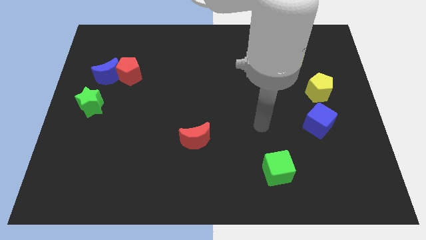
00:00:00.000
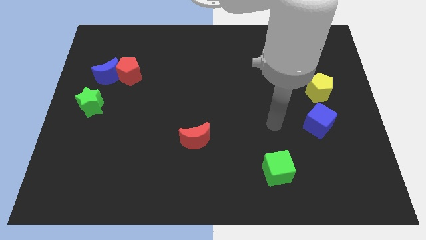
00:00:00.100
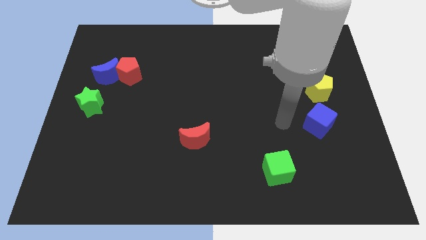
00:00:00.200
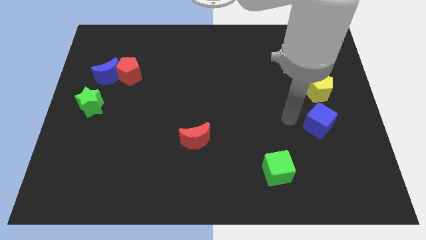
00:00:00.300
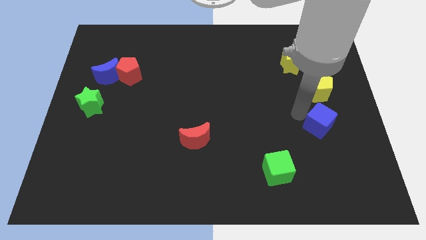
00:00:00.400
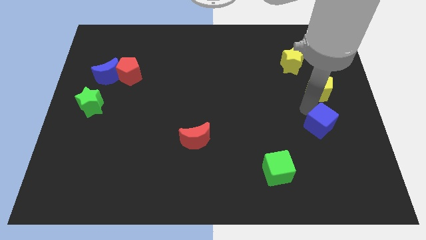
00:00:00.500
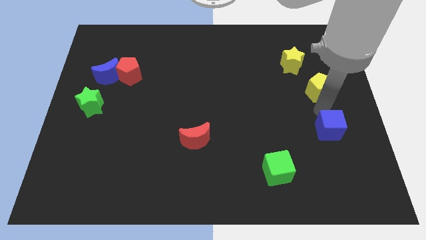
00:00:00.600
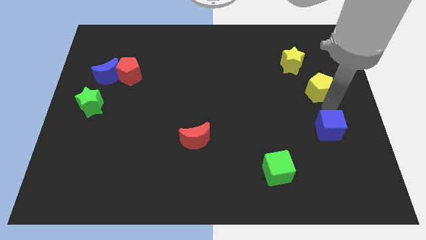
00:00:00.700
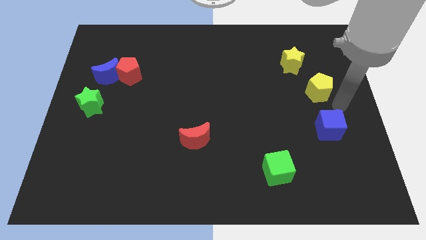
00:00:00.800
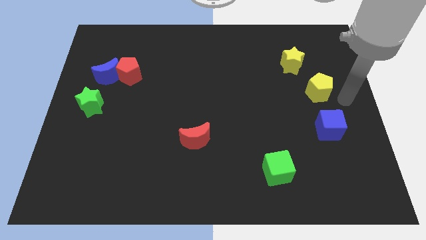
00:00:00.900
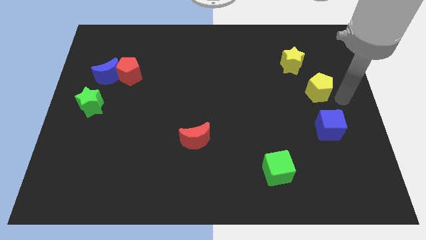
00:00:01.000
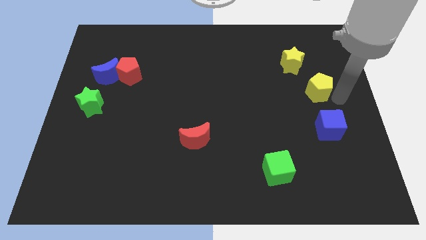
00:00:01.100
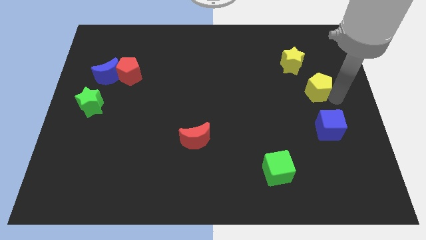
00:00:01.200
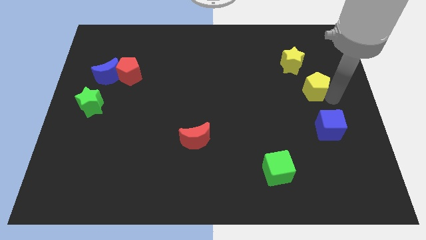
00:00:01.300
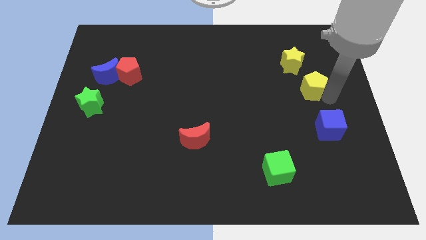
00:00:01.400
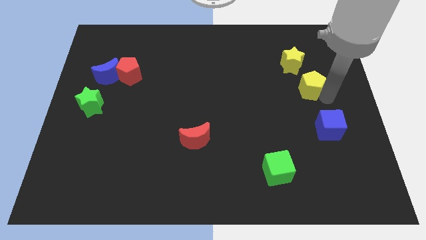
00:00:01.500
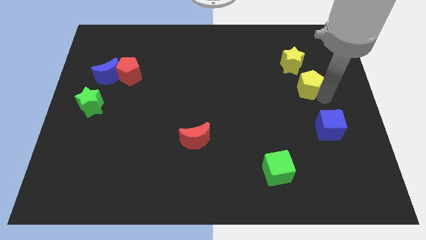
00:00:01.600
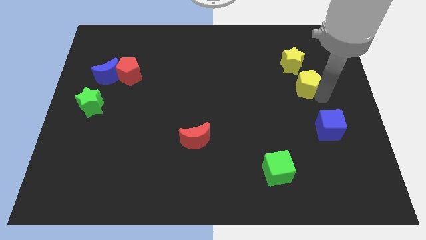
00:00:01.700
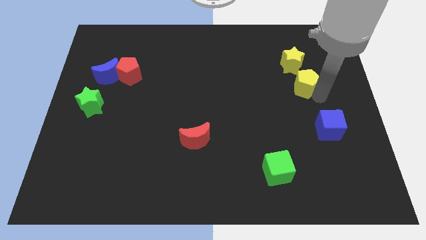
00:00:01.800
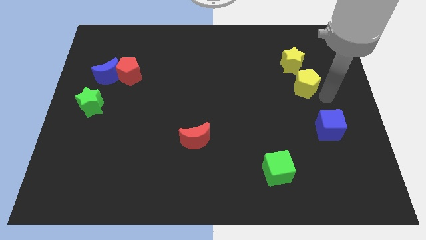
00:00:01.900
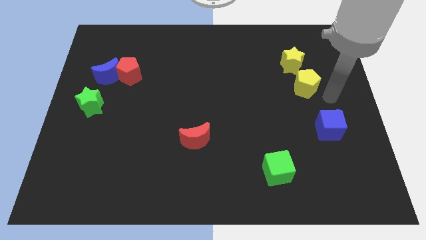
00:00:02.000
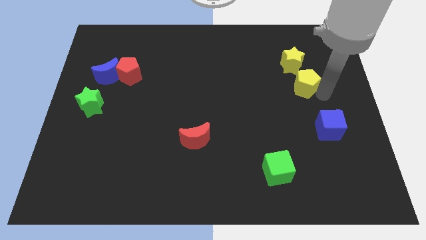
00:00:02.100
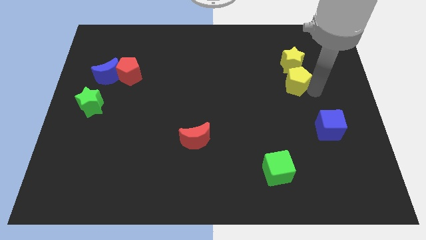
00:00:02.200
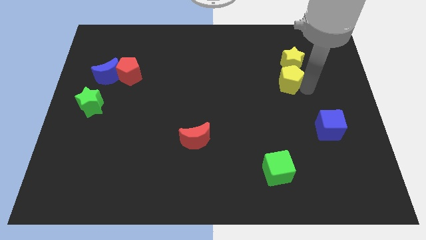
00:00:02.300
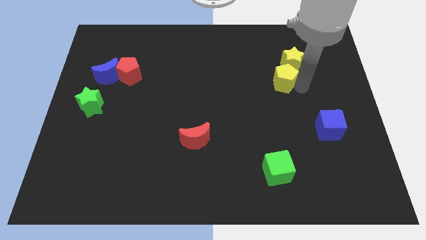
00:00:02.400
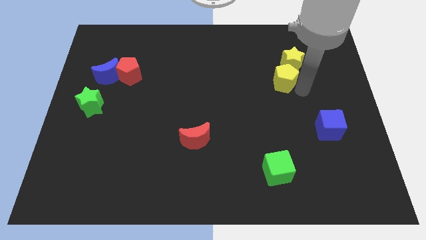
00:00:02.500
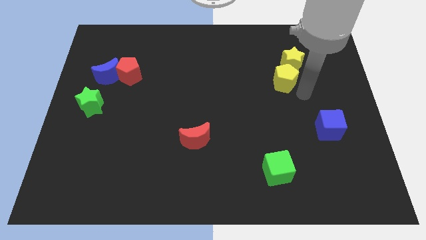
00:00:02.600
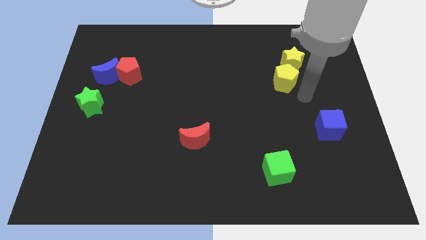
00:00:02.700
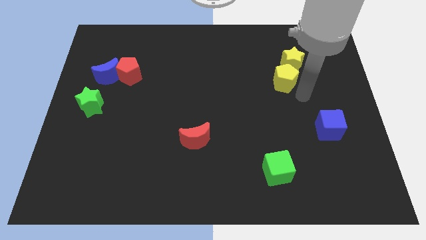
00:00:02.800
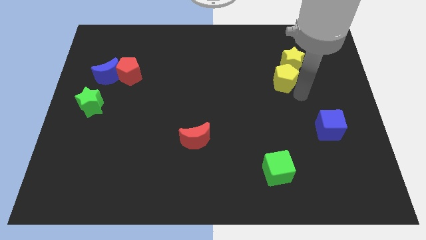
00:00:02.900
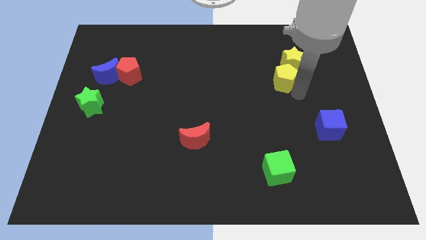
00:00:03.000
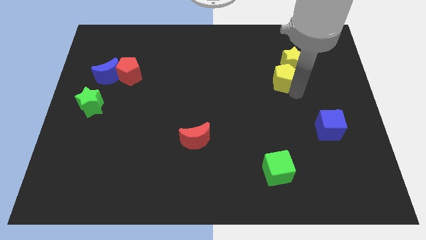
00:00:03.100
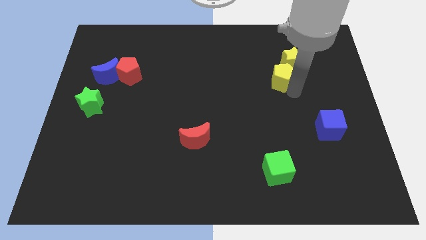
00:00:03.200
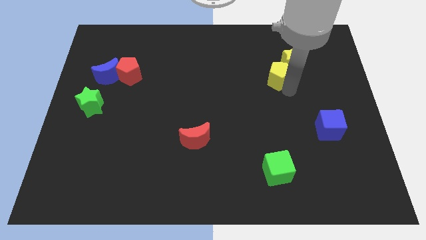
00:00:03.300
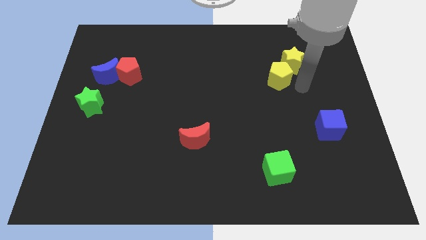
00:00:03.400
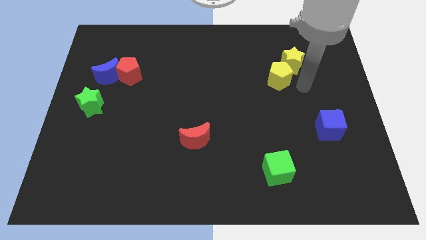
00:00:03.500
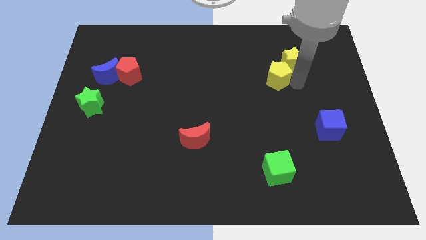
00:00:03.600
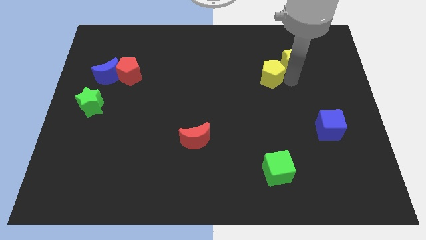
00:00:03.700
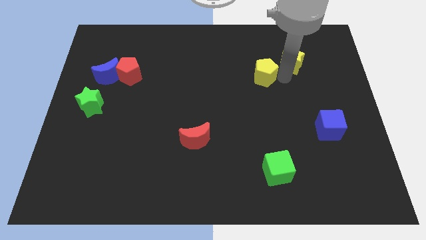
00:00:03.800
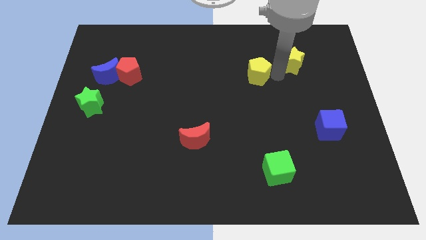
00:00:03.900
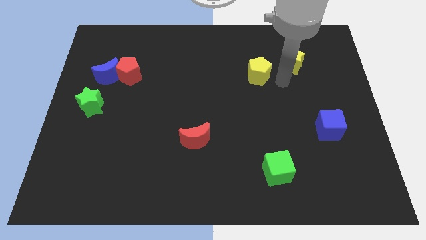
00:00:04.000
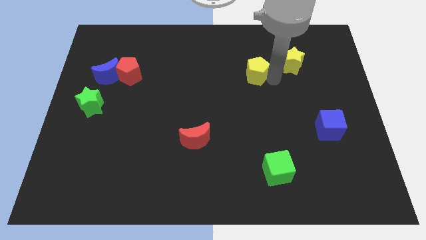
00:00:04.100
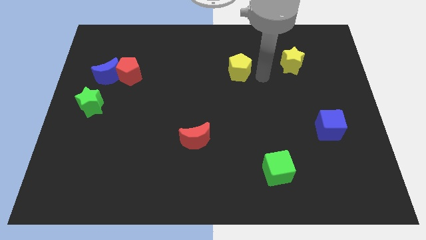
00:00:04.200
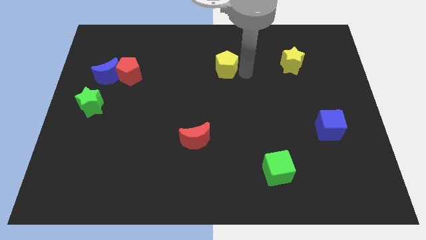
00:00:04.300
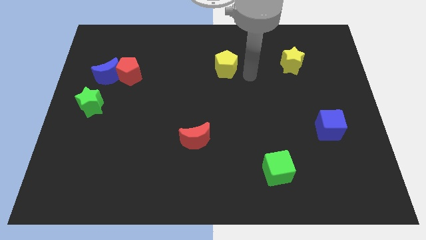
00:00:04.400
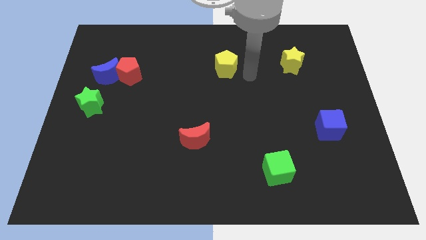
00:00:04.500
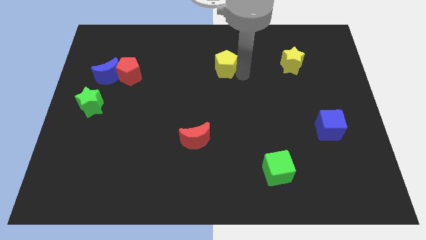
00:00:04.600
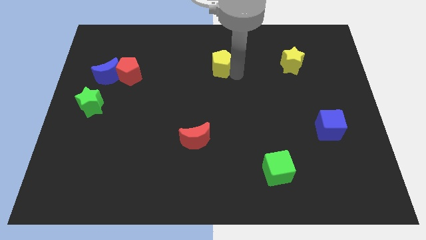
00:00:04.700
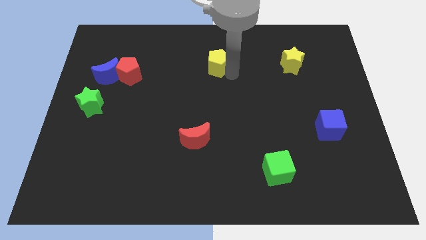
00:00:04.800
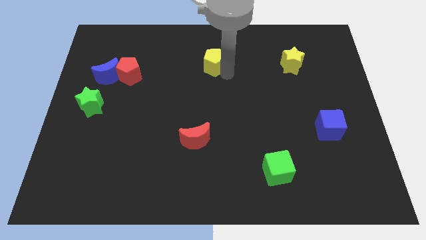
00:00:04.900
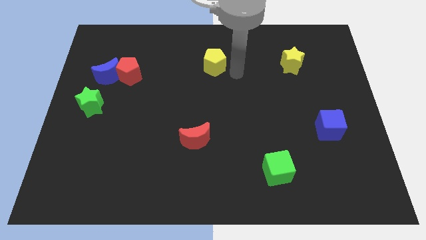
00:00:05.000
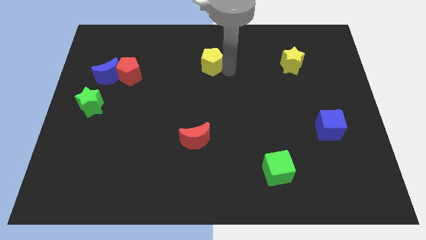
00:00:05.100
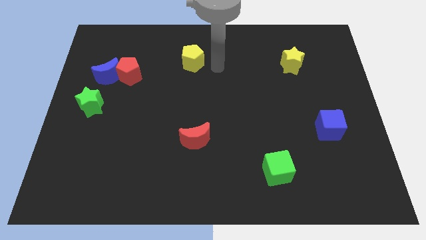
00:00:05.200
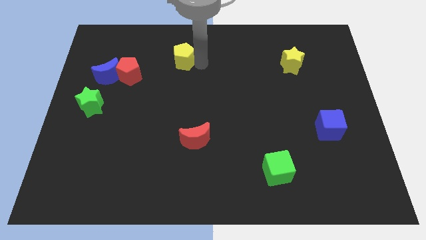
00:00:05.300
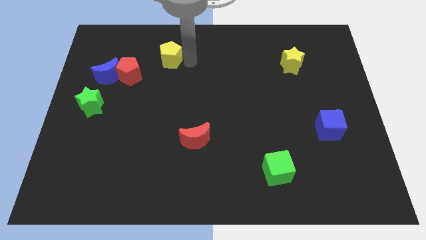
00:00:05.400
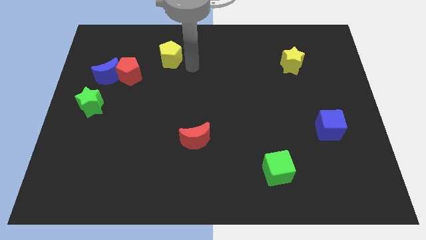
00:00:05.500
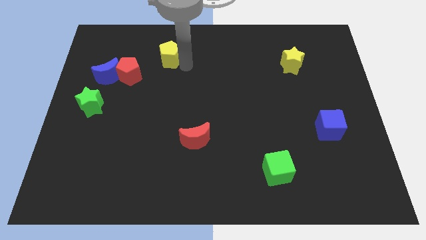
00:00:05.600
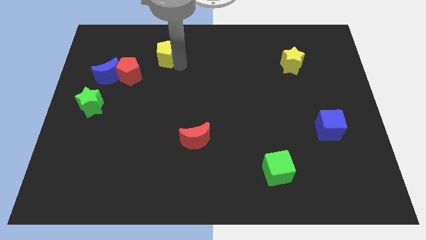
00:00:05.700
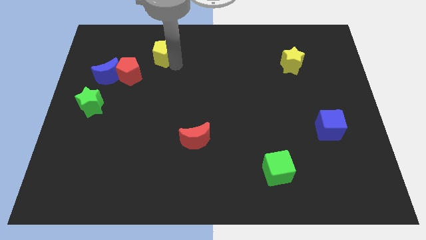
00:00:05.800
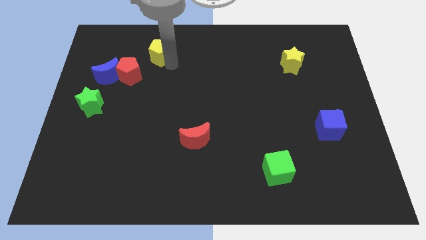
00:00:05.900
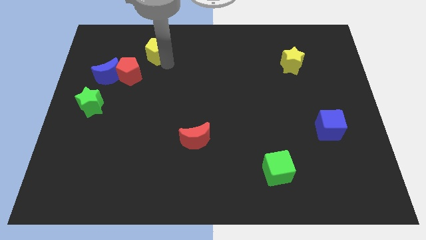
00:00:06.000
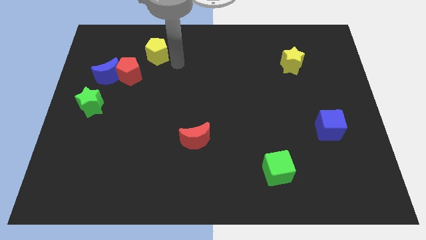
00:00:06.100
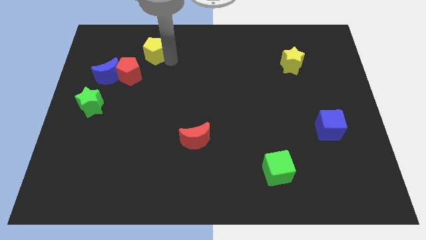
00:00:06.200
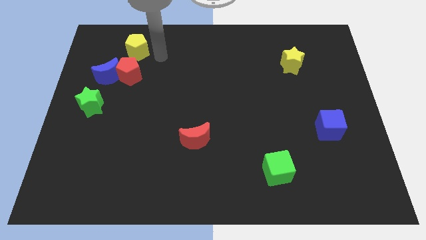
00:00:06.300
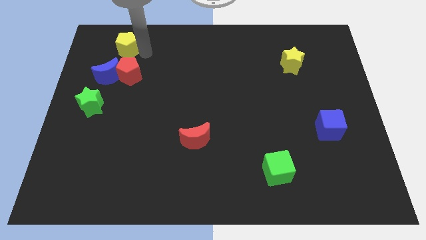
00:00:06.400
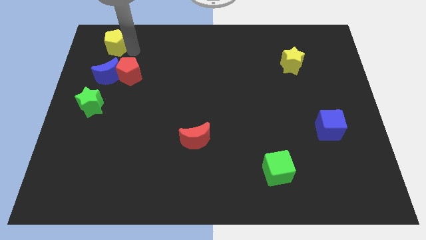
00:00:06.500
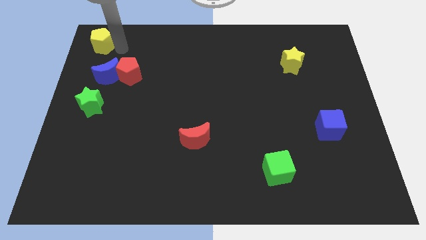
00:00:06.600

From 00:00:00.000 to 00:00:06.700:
move the yellow pentagon to the top left
